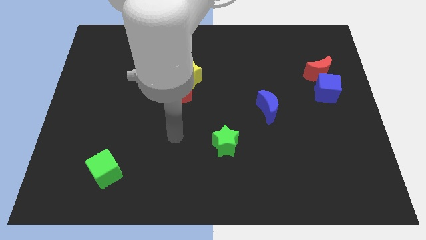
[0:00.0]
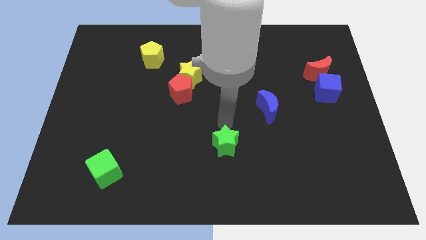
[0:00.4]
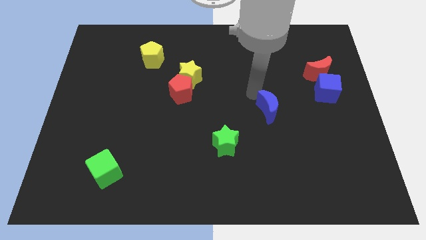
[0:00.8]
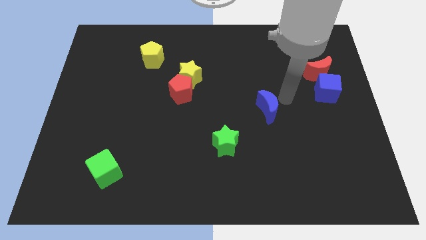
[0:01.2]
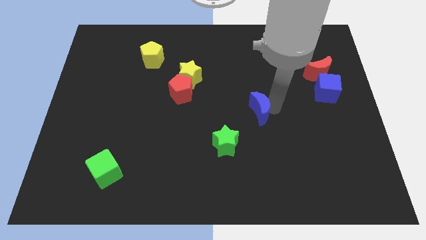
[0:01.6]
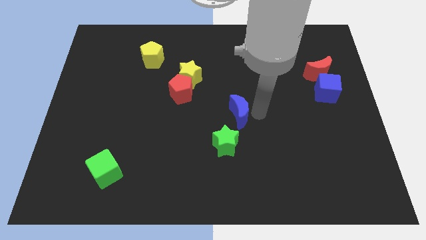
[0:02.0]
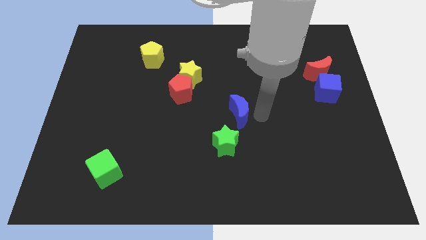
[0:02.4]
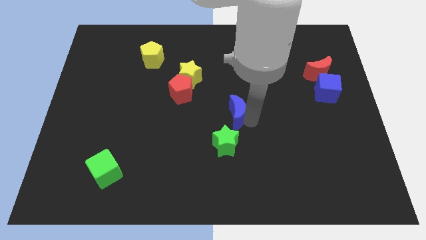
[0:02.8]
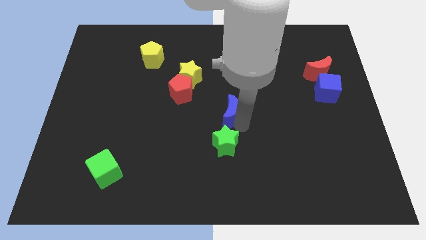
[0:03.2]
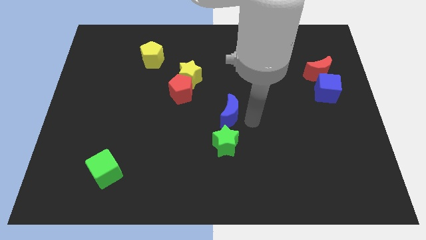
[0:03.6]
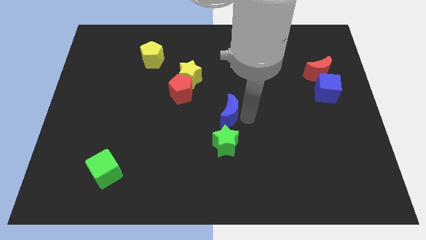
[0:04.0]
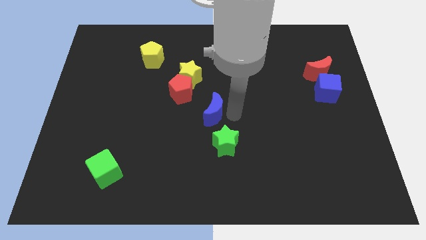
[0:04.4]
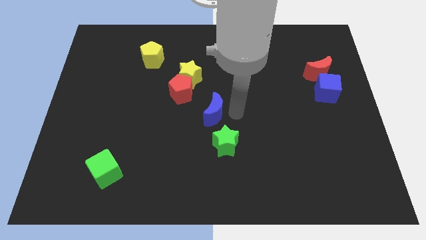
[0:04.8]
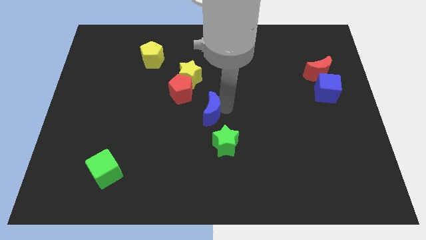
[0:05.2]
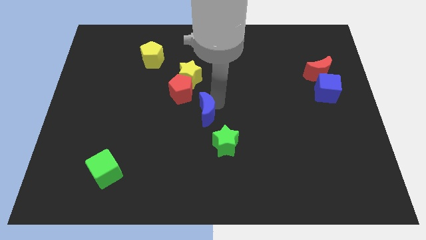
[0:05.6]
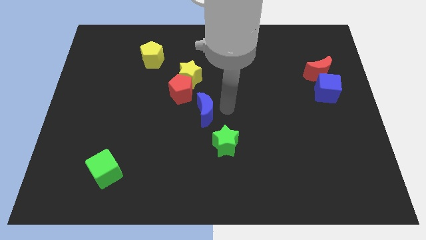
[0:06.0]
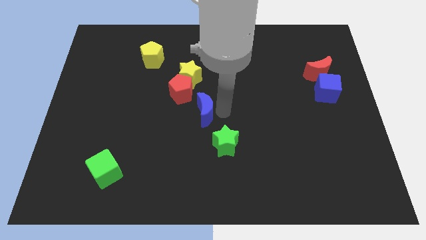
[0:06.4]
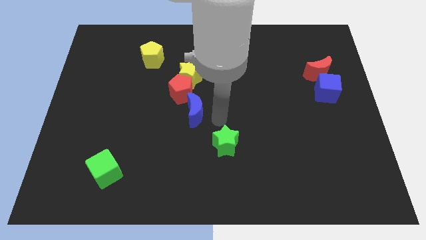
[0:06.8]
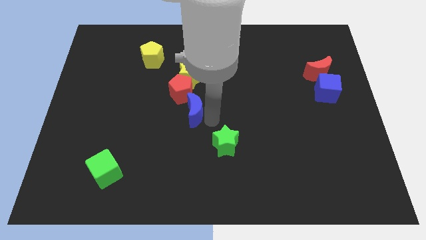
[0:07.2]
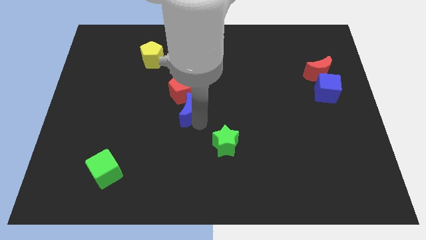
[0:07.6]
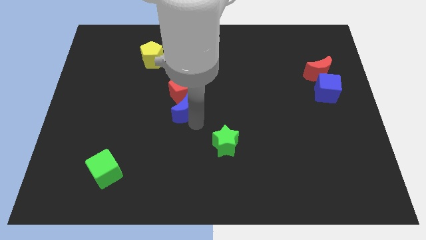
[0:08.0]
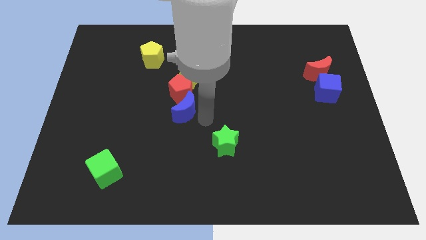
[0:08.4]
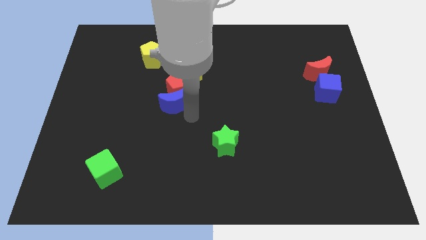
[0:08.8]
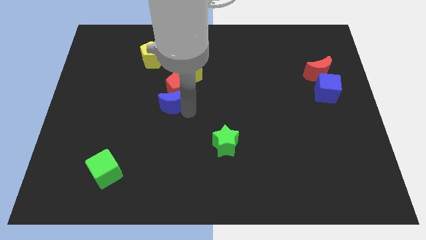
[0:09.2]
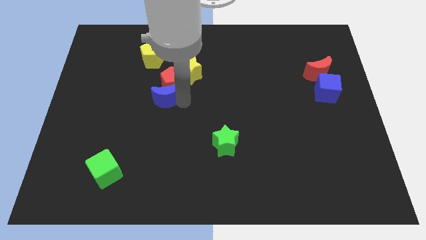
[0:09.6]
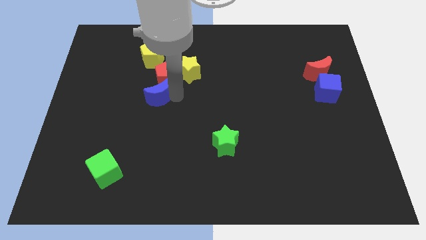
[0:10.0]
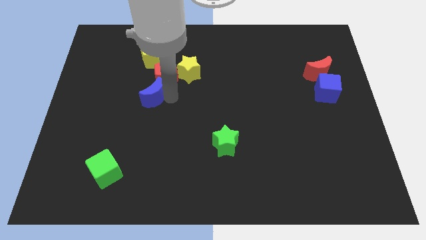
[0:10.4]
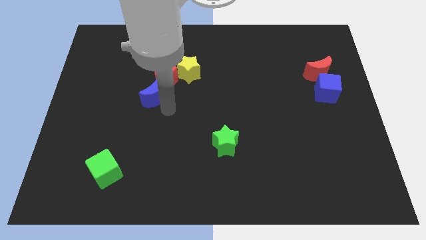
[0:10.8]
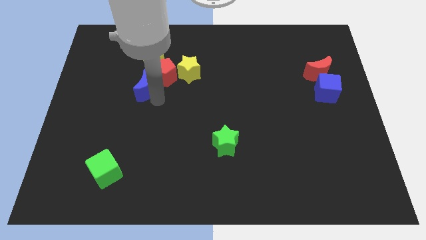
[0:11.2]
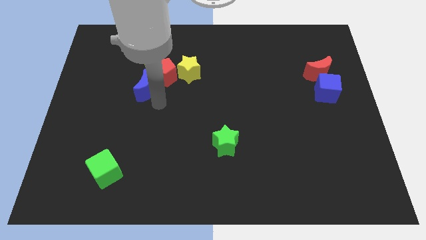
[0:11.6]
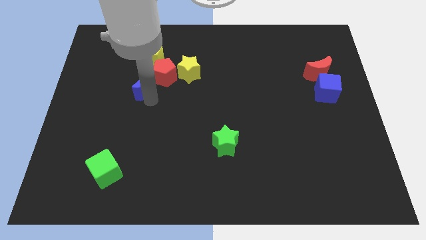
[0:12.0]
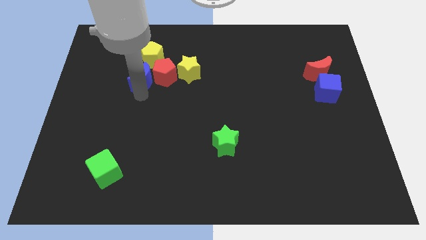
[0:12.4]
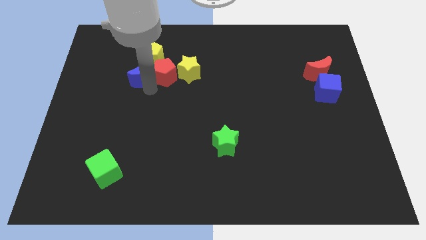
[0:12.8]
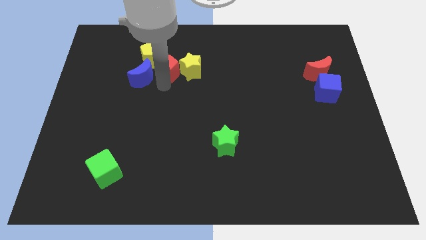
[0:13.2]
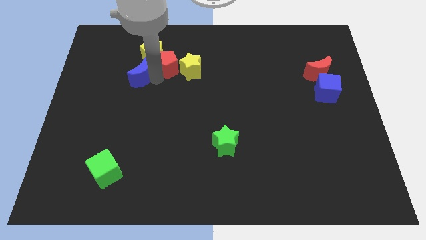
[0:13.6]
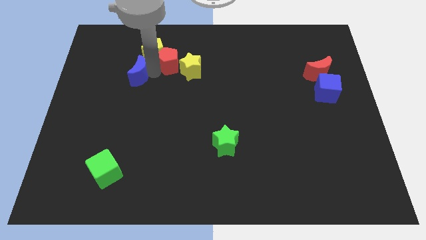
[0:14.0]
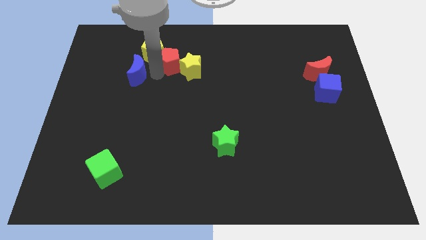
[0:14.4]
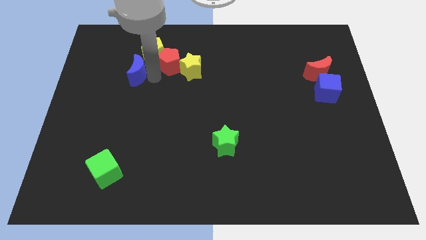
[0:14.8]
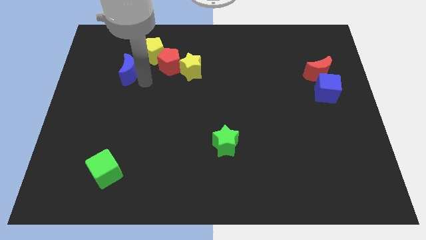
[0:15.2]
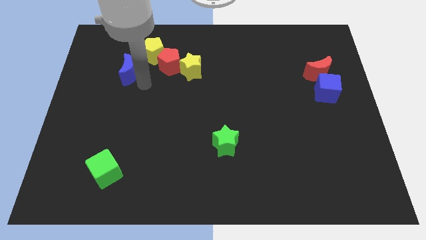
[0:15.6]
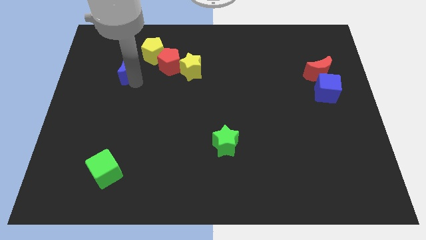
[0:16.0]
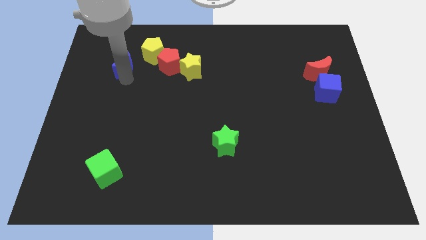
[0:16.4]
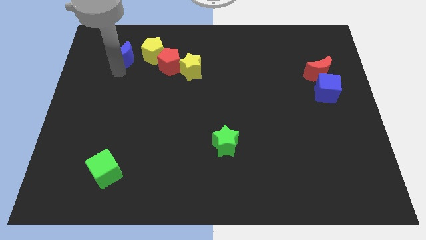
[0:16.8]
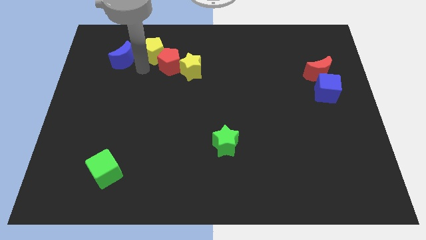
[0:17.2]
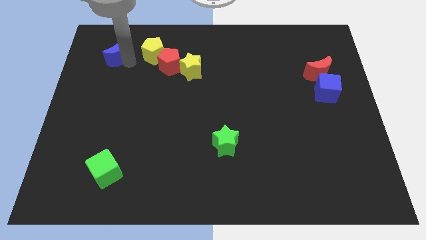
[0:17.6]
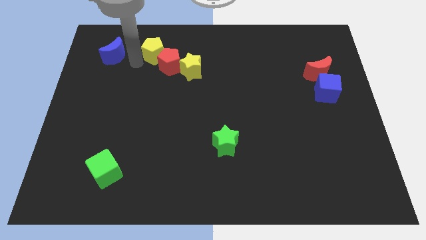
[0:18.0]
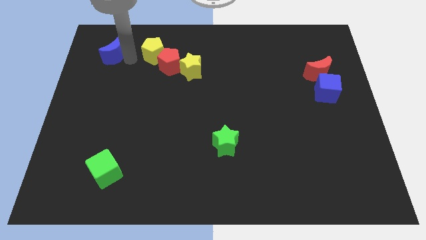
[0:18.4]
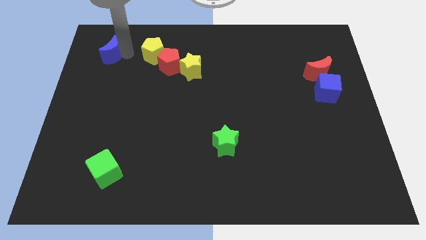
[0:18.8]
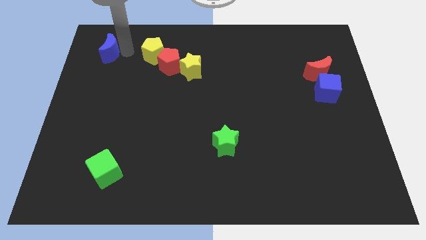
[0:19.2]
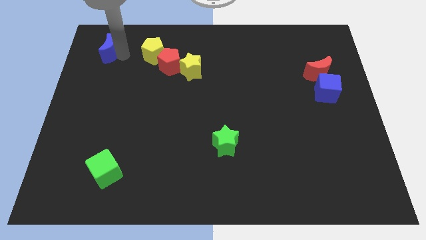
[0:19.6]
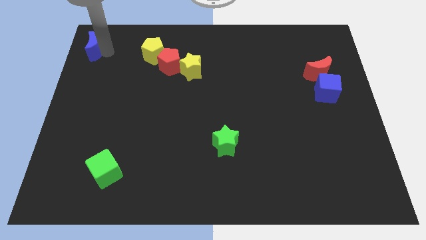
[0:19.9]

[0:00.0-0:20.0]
put the blue moon to the top left
